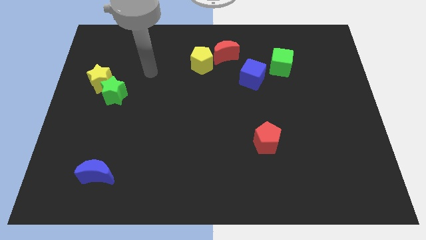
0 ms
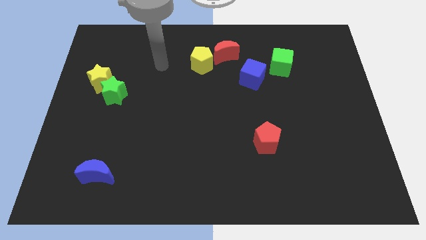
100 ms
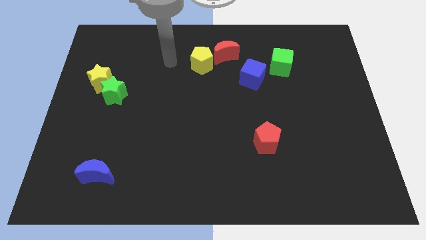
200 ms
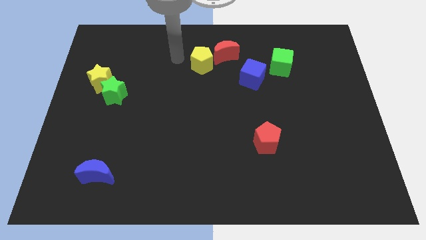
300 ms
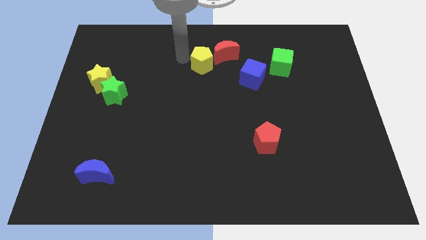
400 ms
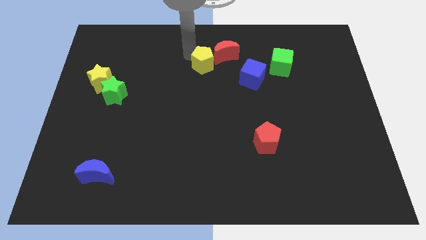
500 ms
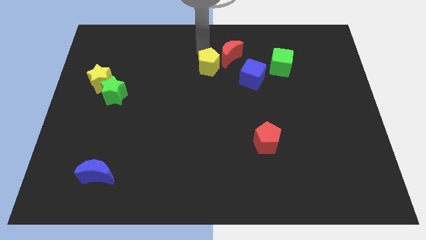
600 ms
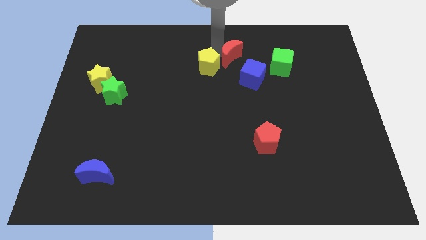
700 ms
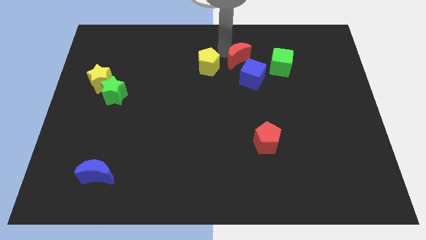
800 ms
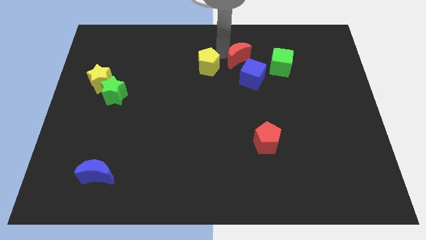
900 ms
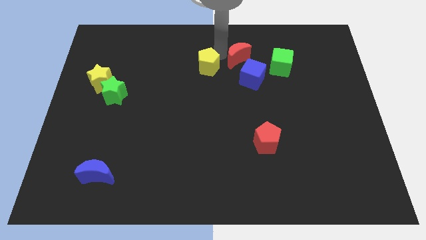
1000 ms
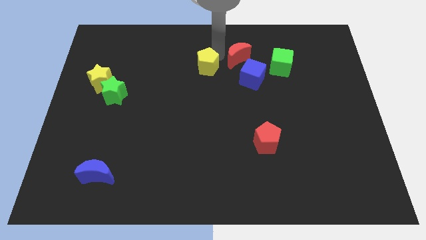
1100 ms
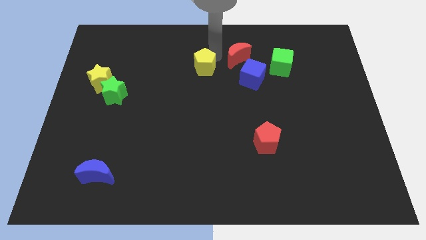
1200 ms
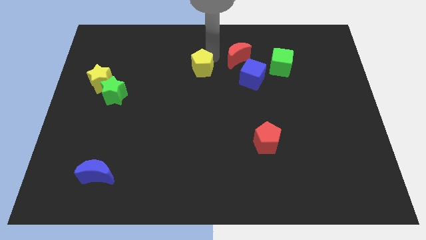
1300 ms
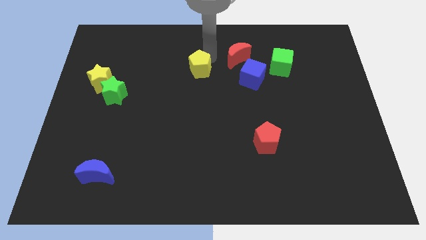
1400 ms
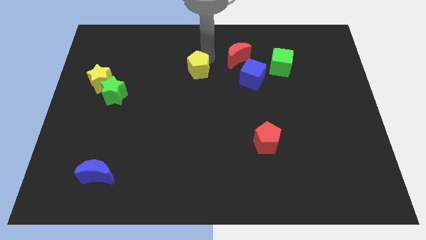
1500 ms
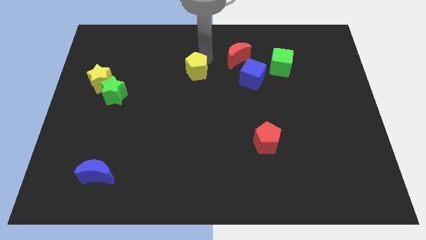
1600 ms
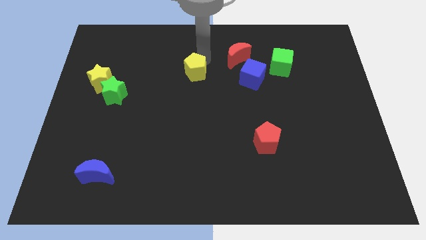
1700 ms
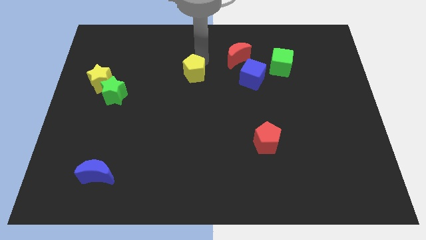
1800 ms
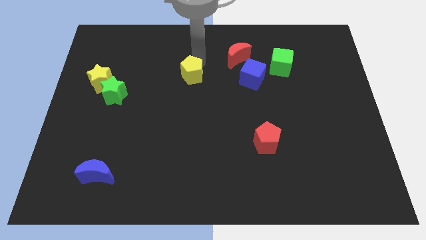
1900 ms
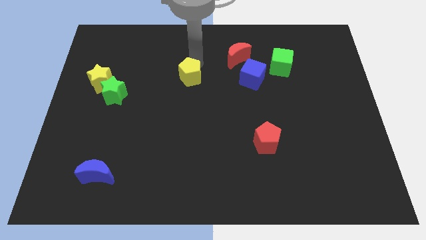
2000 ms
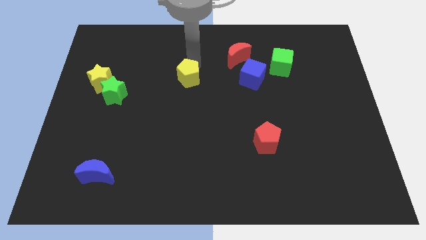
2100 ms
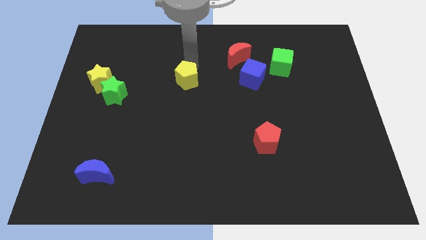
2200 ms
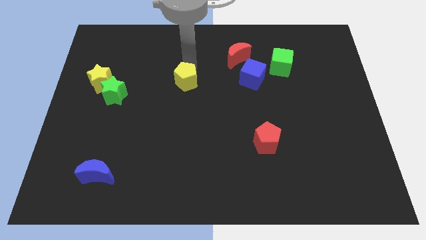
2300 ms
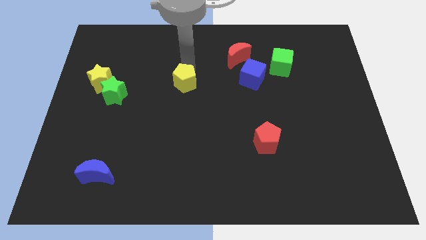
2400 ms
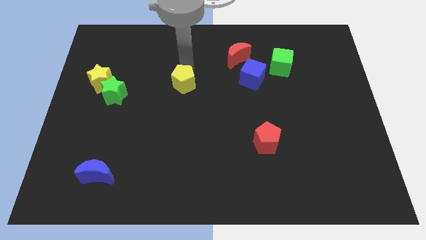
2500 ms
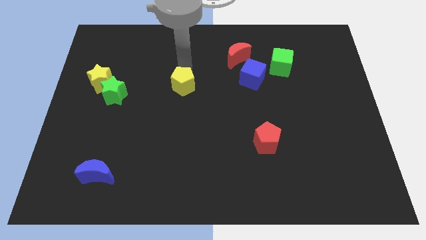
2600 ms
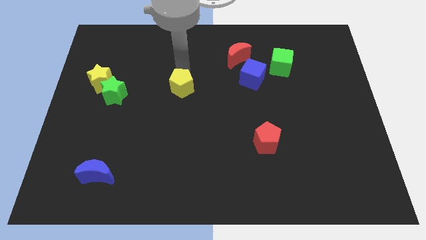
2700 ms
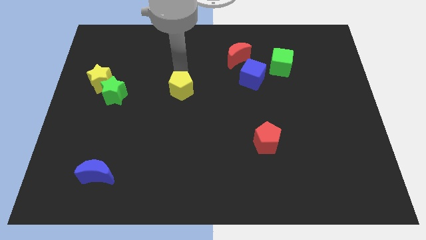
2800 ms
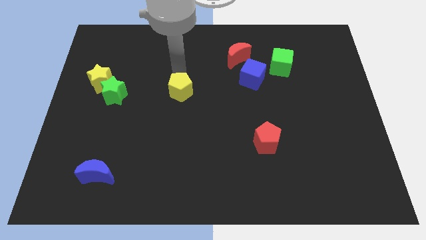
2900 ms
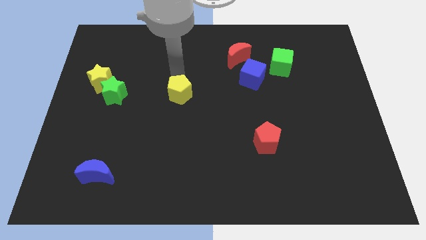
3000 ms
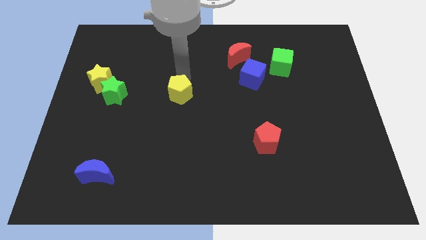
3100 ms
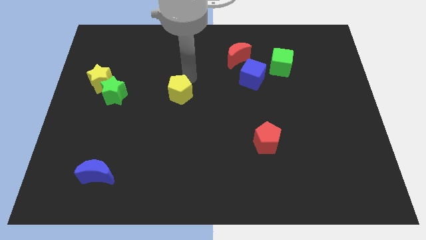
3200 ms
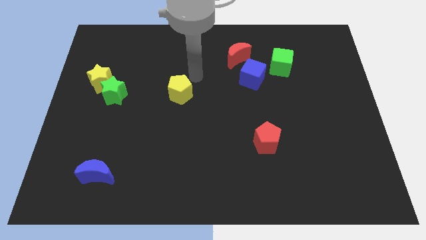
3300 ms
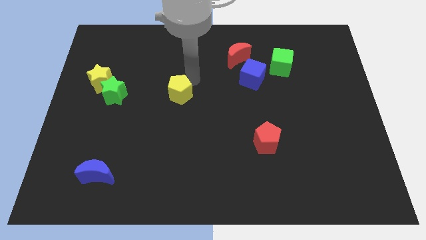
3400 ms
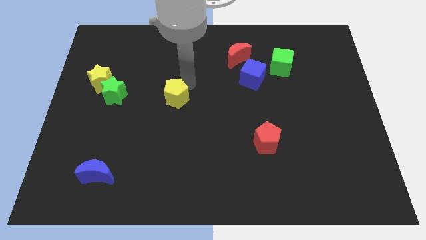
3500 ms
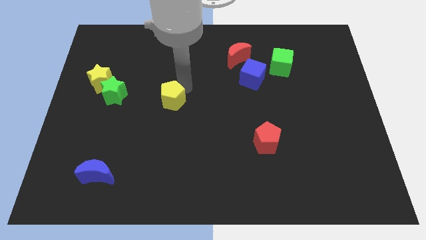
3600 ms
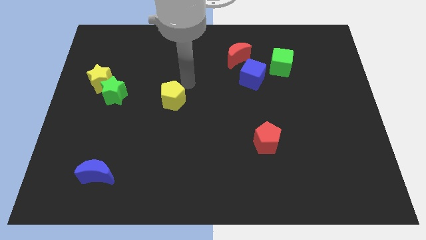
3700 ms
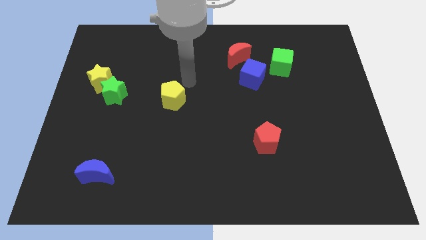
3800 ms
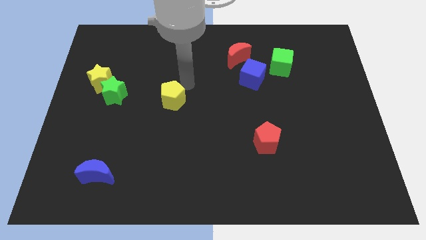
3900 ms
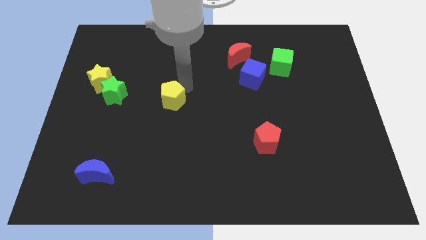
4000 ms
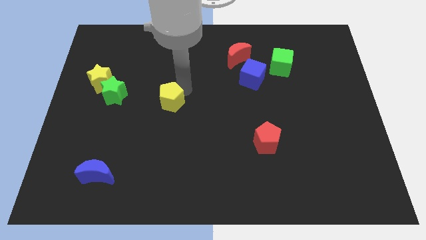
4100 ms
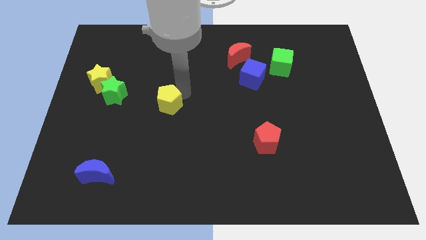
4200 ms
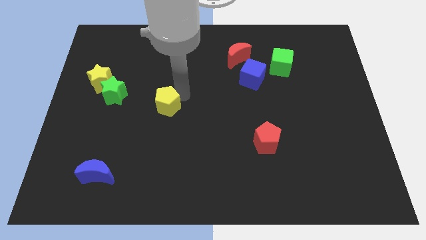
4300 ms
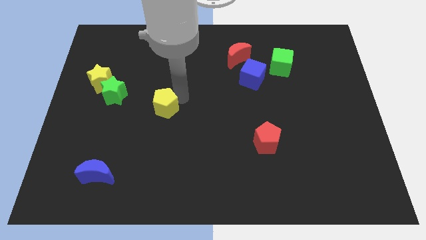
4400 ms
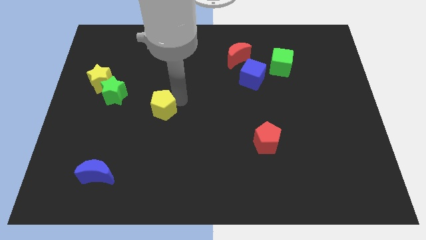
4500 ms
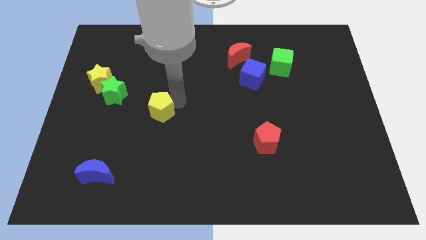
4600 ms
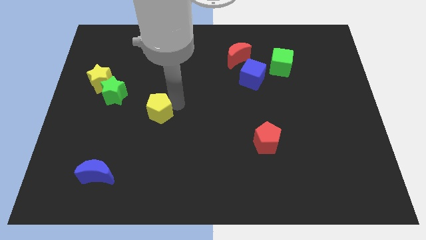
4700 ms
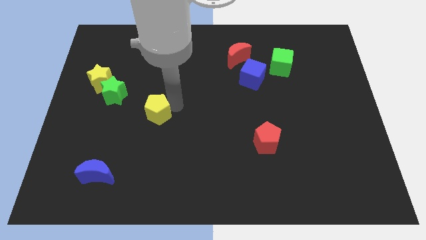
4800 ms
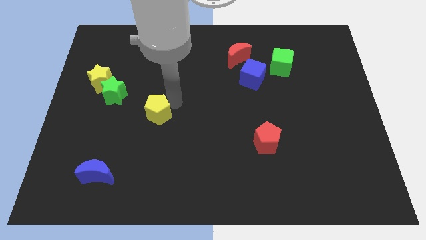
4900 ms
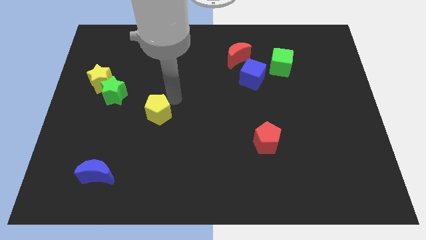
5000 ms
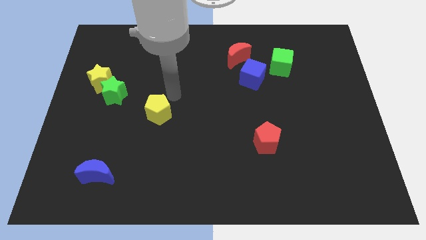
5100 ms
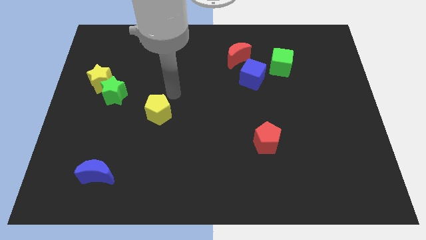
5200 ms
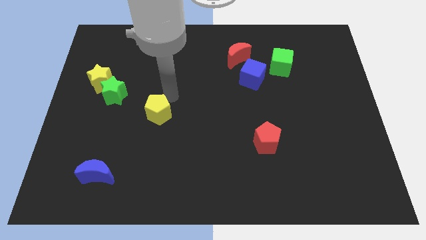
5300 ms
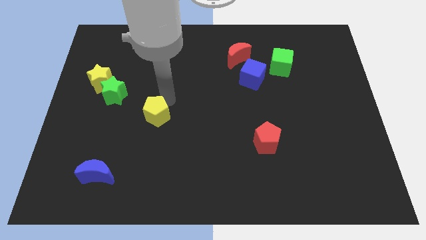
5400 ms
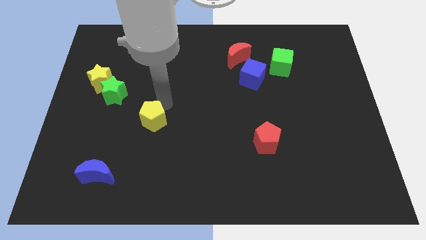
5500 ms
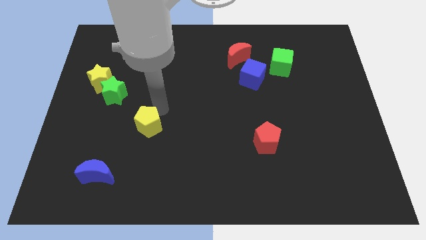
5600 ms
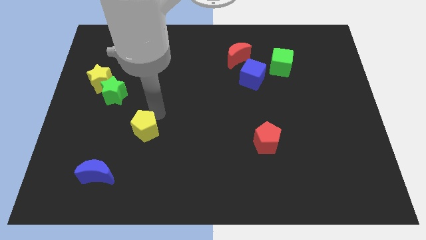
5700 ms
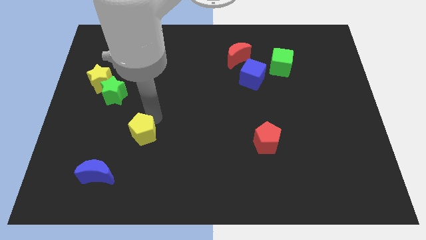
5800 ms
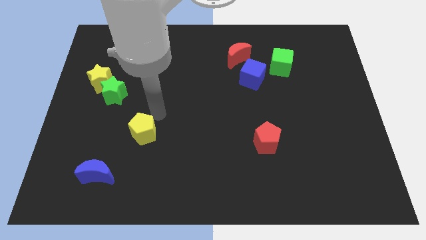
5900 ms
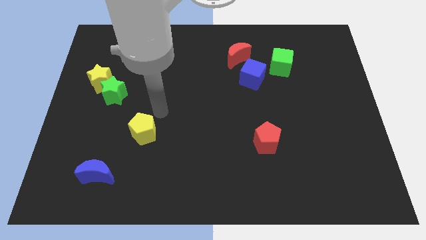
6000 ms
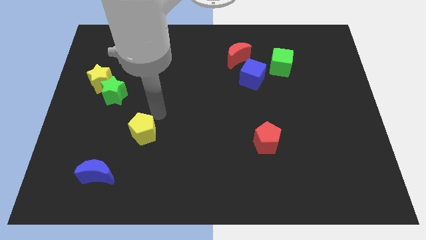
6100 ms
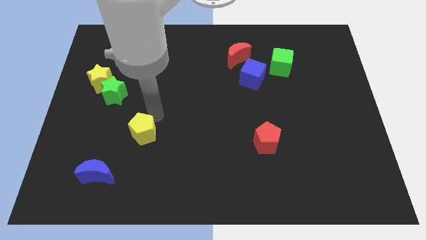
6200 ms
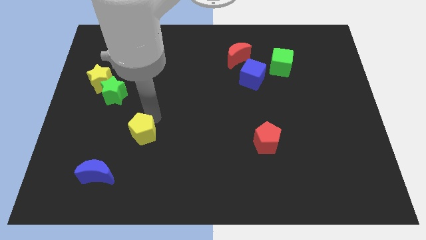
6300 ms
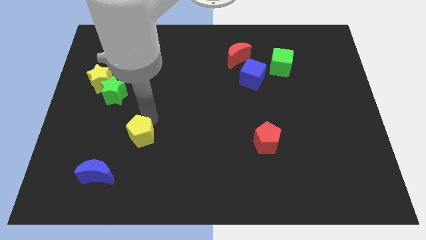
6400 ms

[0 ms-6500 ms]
put the yellow pentagon diagonally up and to the right of the blue moon

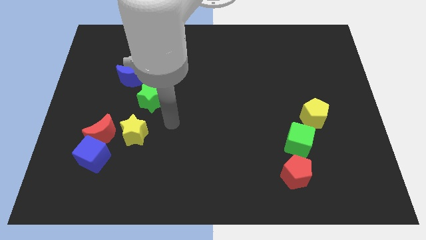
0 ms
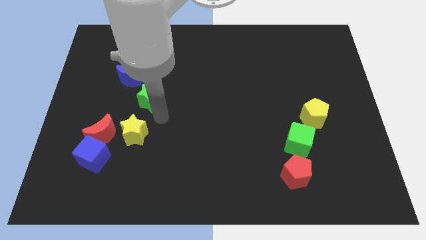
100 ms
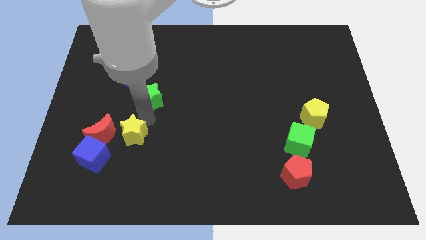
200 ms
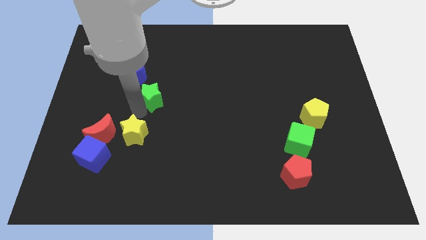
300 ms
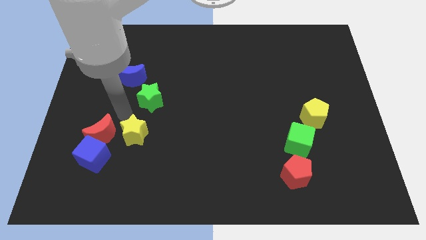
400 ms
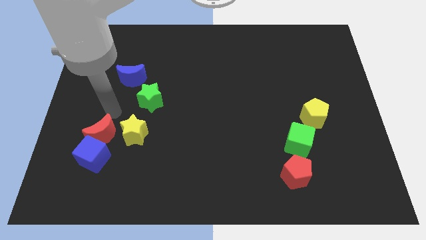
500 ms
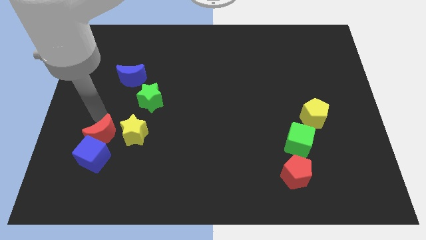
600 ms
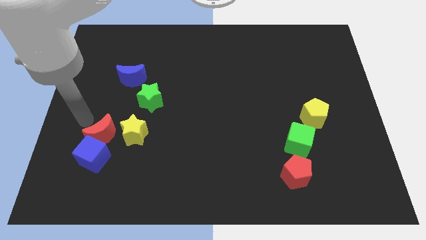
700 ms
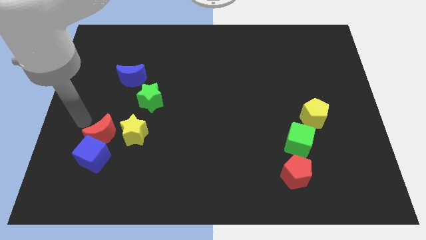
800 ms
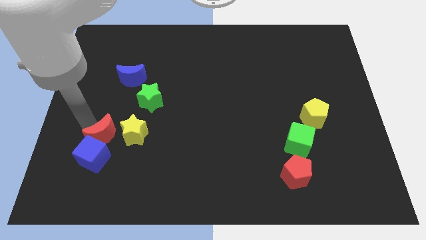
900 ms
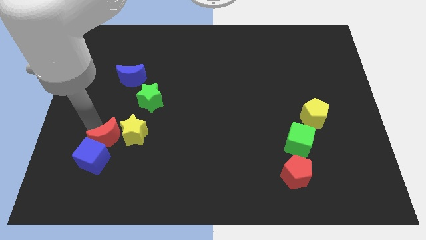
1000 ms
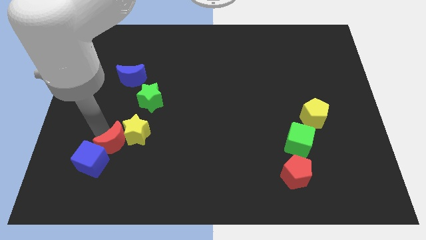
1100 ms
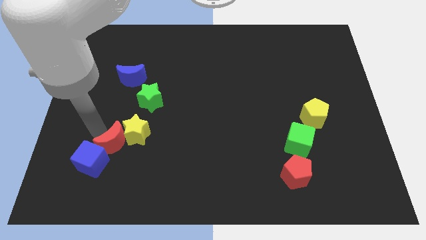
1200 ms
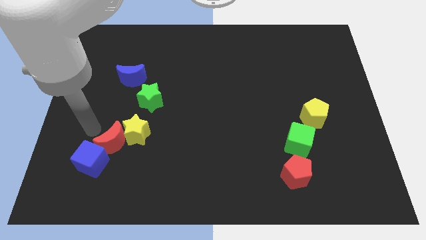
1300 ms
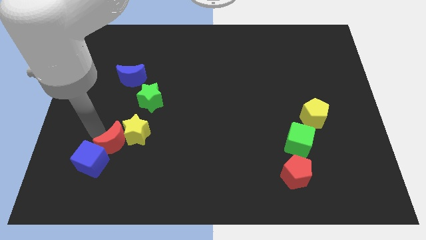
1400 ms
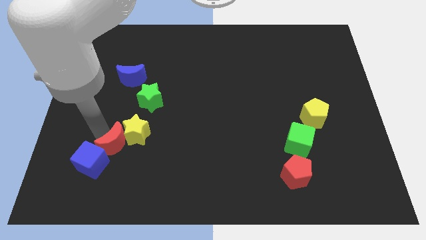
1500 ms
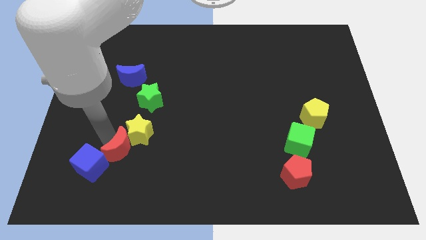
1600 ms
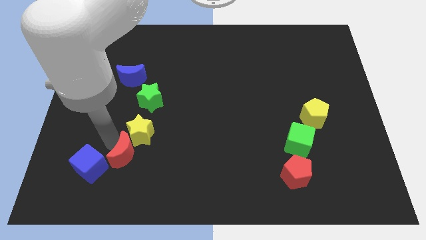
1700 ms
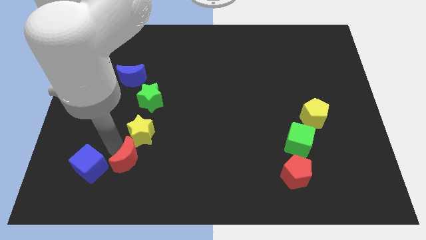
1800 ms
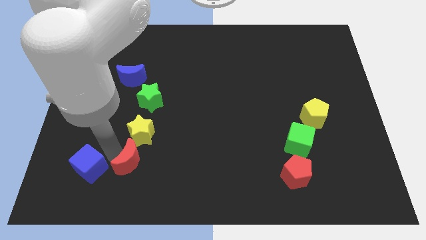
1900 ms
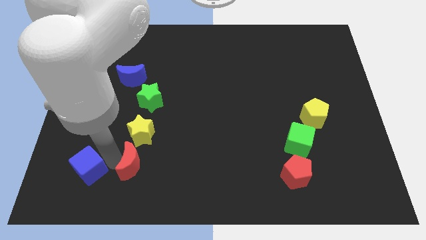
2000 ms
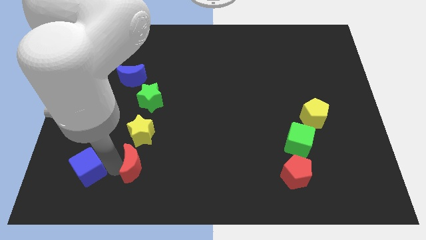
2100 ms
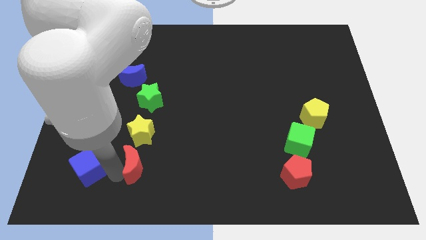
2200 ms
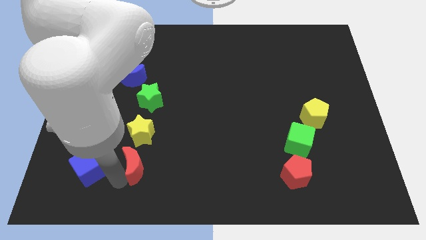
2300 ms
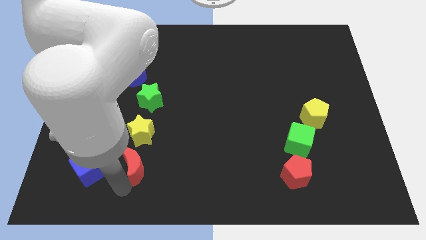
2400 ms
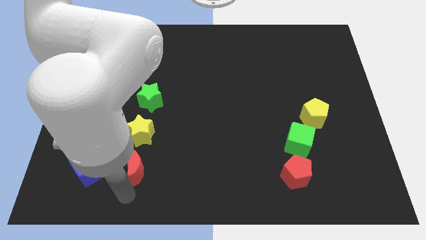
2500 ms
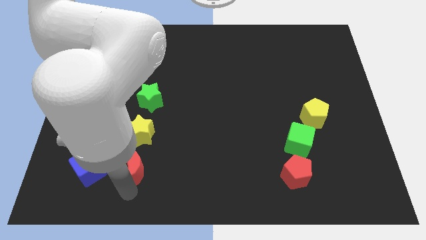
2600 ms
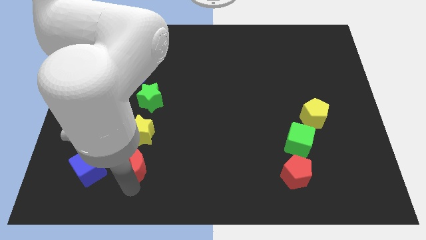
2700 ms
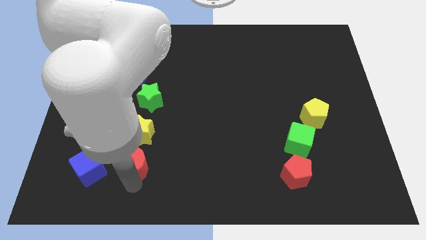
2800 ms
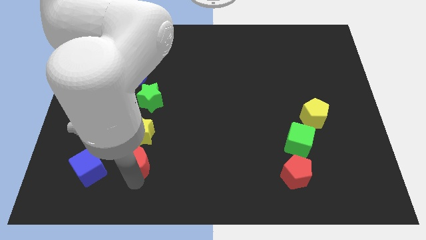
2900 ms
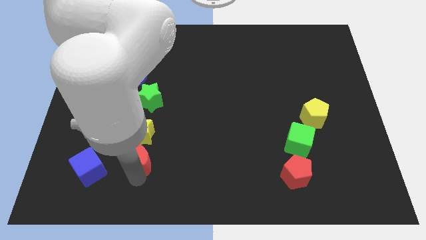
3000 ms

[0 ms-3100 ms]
push the red moon to the bottom of the green star
